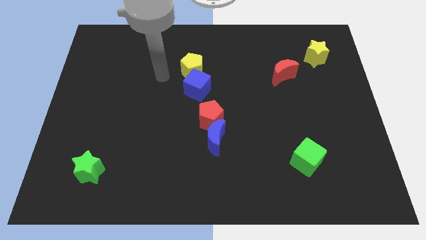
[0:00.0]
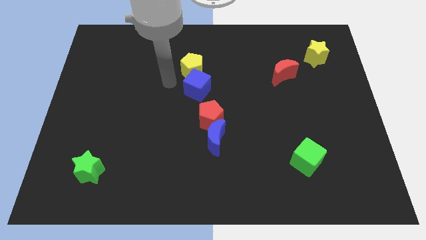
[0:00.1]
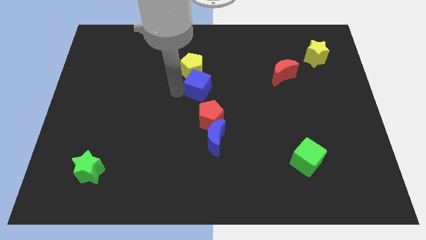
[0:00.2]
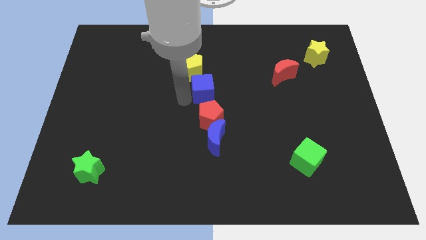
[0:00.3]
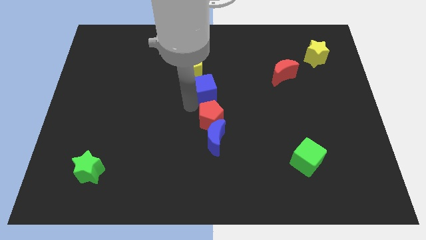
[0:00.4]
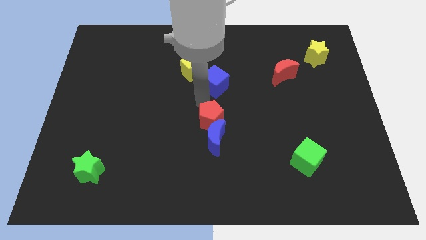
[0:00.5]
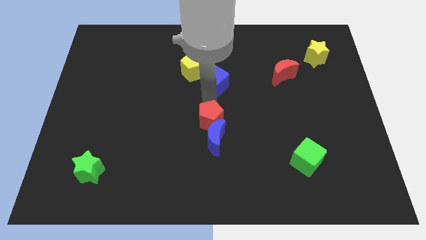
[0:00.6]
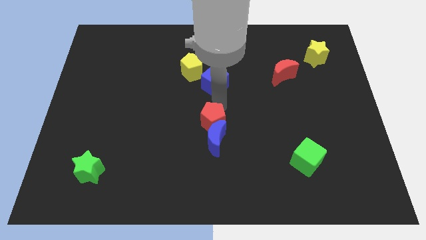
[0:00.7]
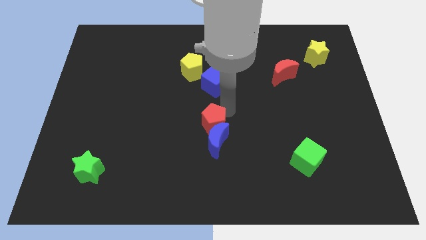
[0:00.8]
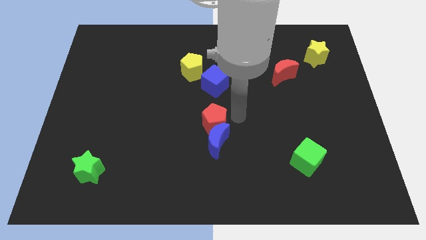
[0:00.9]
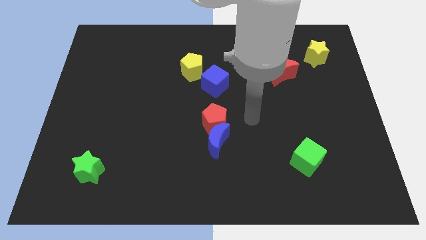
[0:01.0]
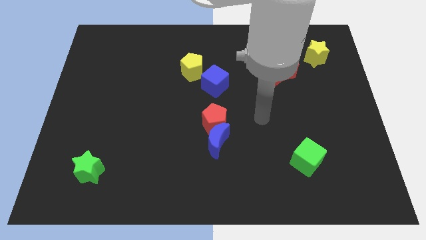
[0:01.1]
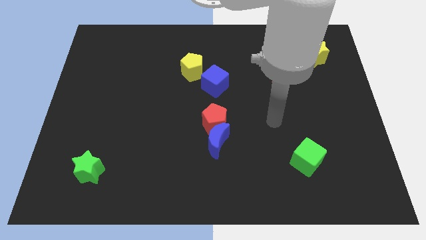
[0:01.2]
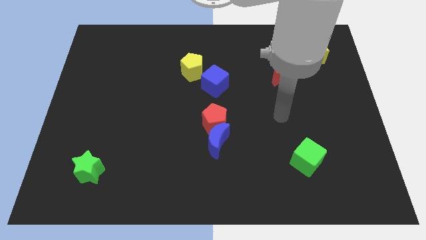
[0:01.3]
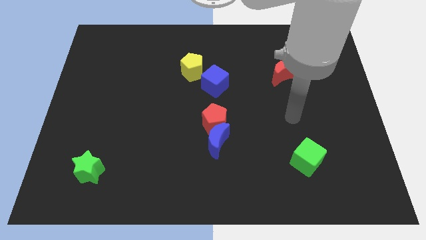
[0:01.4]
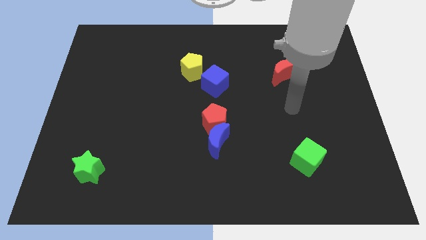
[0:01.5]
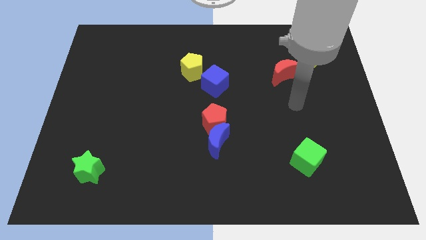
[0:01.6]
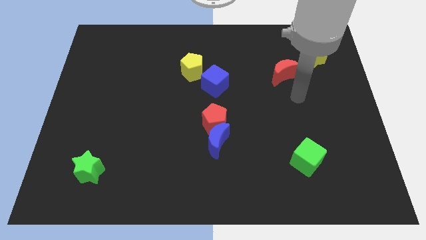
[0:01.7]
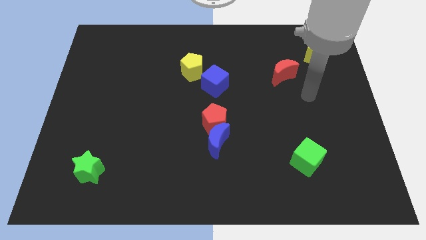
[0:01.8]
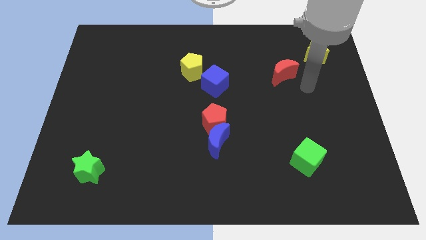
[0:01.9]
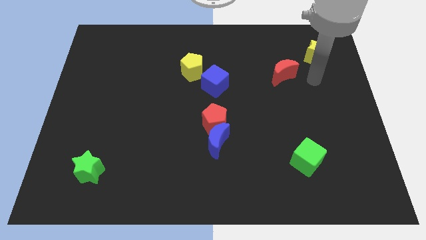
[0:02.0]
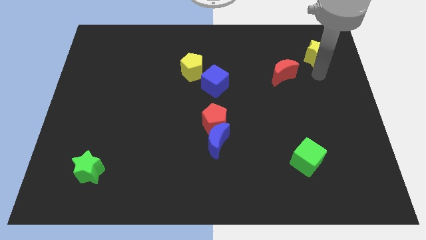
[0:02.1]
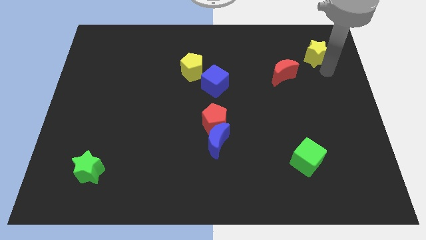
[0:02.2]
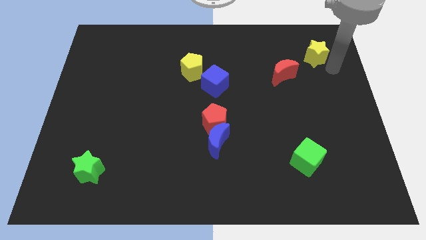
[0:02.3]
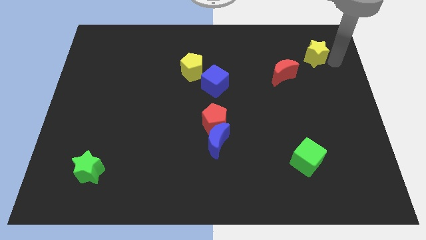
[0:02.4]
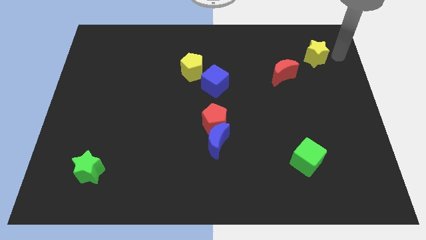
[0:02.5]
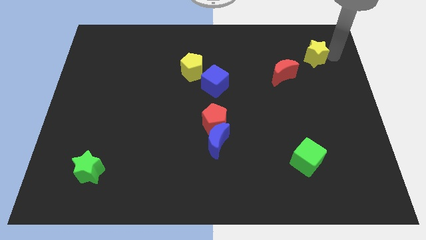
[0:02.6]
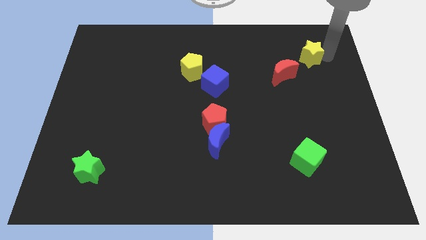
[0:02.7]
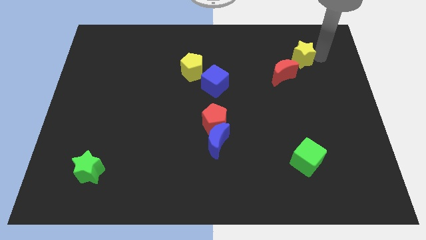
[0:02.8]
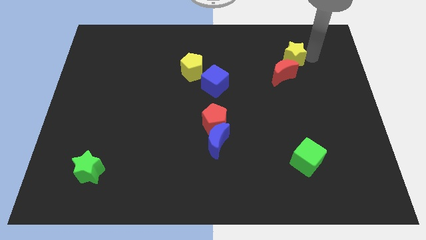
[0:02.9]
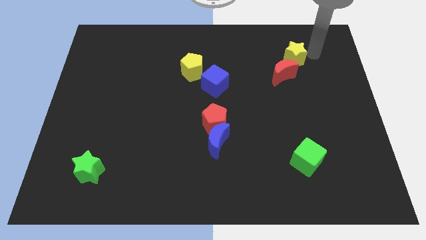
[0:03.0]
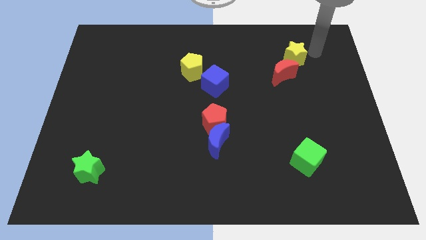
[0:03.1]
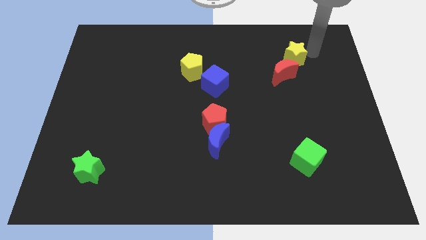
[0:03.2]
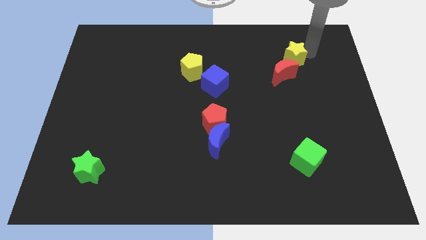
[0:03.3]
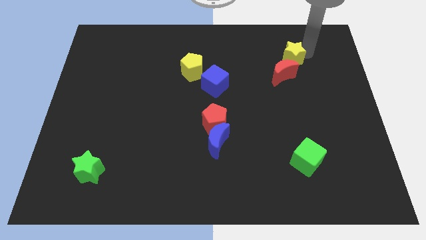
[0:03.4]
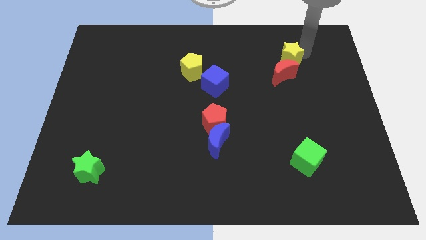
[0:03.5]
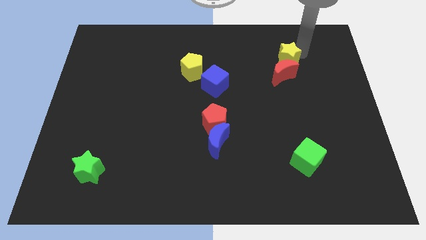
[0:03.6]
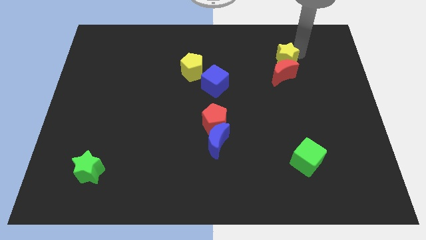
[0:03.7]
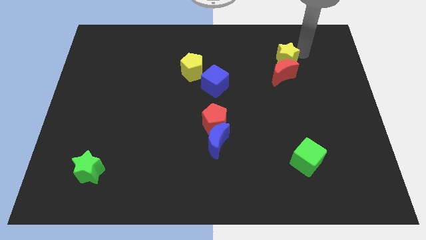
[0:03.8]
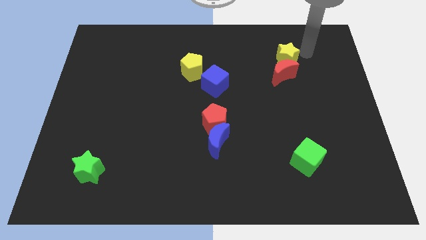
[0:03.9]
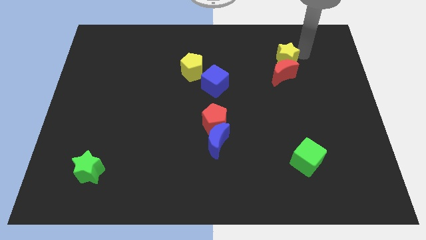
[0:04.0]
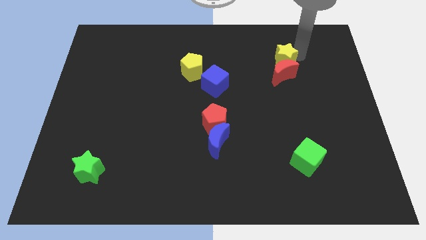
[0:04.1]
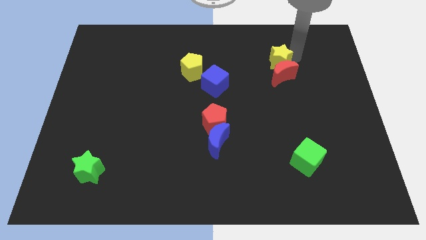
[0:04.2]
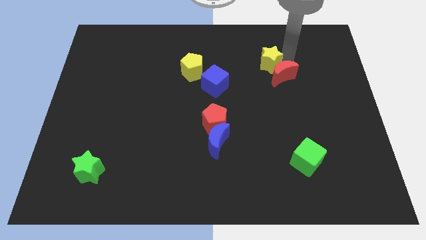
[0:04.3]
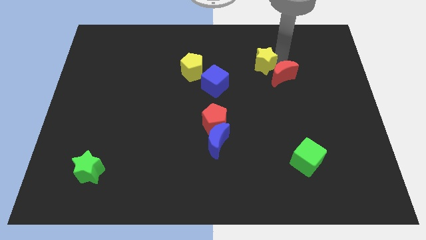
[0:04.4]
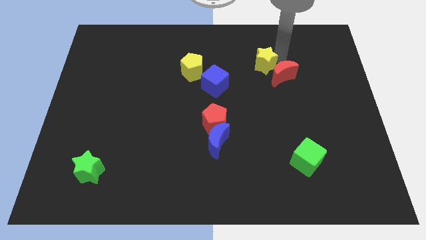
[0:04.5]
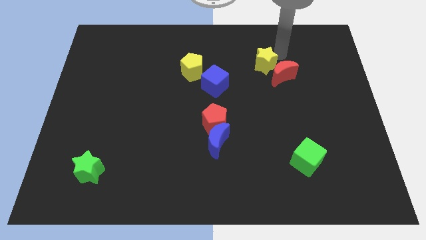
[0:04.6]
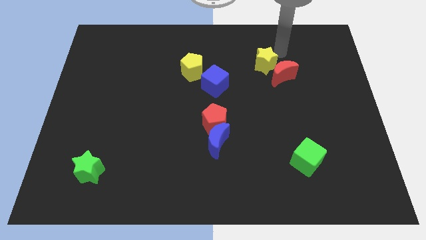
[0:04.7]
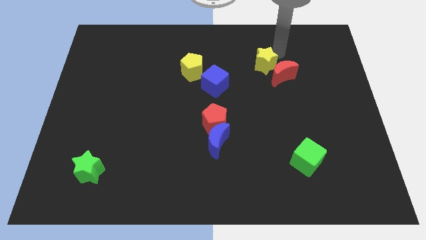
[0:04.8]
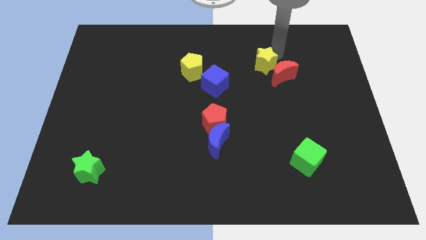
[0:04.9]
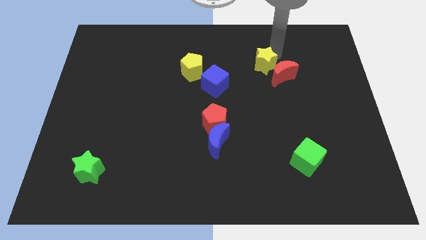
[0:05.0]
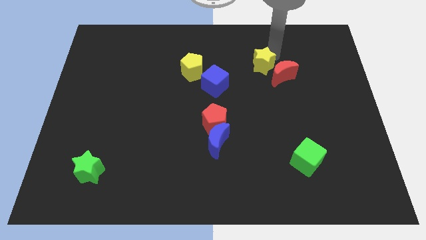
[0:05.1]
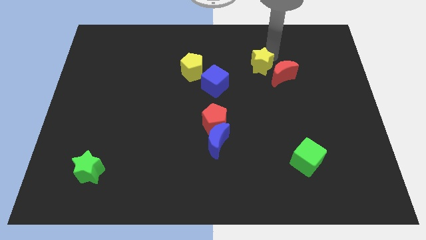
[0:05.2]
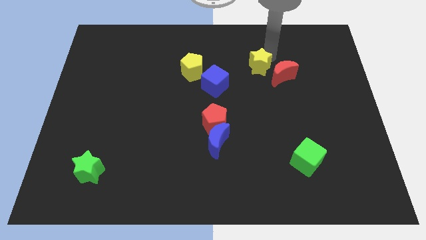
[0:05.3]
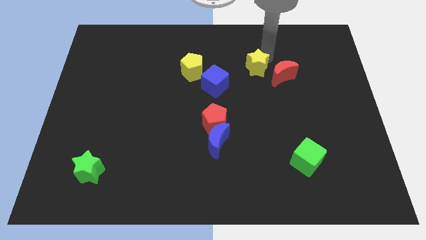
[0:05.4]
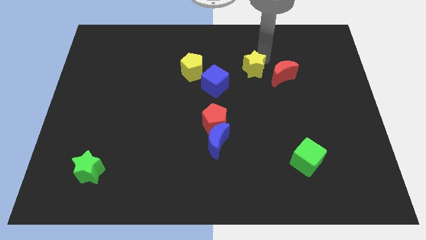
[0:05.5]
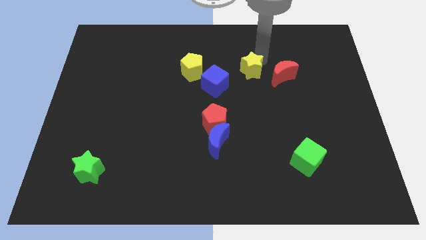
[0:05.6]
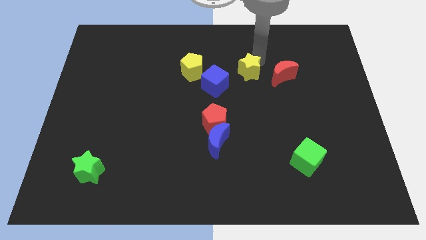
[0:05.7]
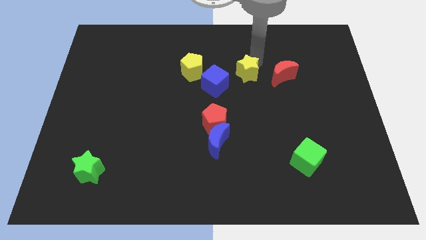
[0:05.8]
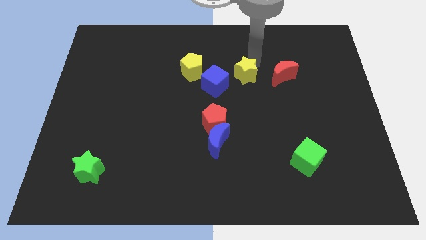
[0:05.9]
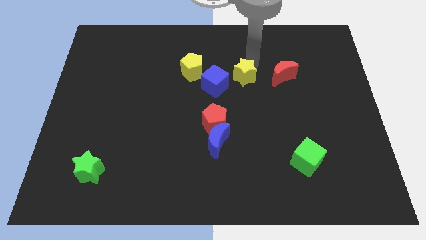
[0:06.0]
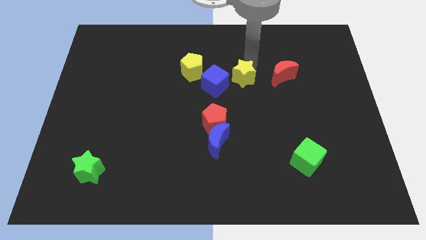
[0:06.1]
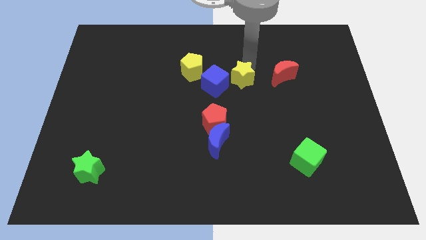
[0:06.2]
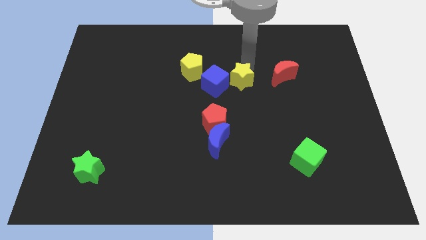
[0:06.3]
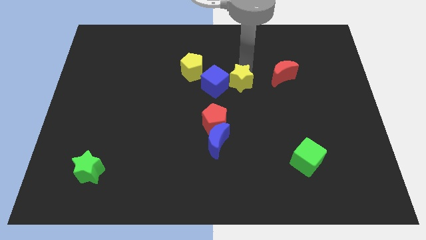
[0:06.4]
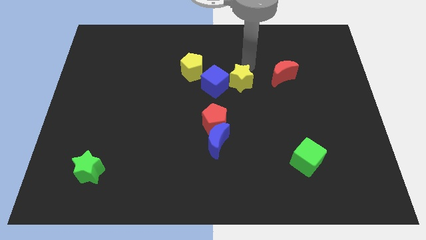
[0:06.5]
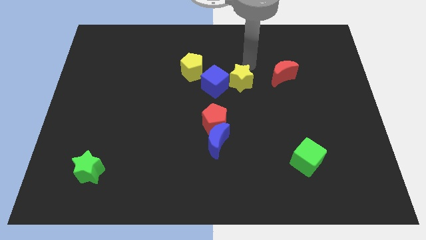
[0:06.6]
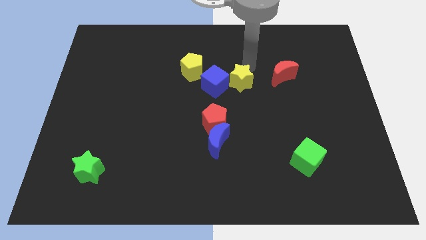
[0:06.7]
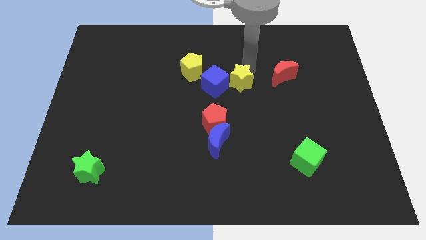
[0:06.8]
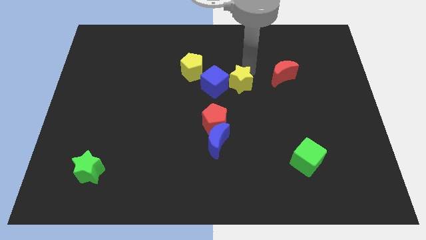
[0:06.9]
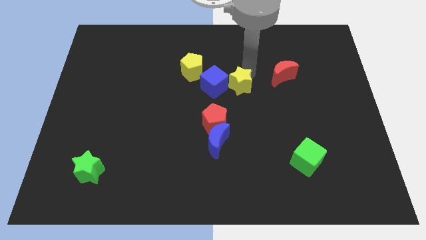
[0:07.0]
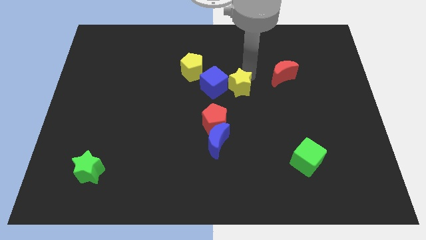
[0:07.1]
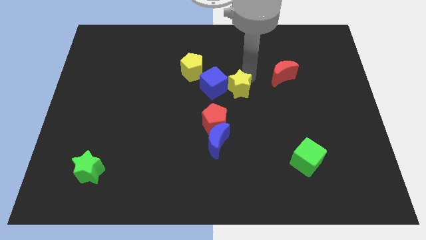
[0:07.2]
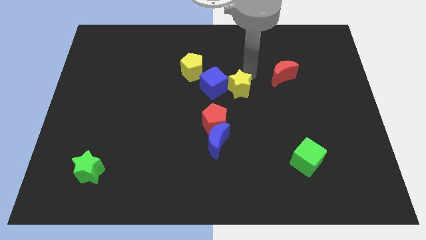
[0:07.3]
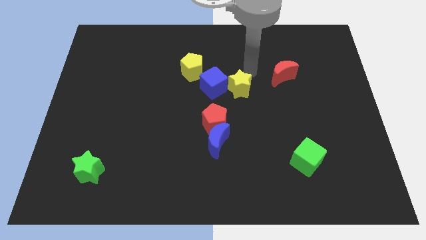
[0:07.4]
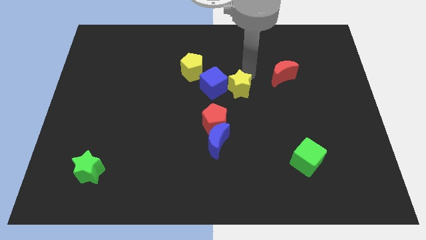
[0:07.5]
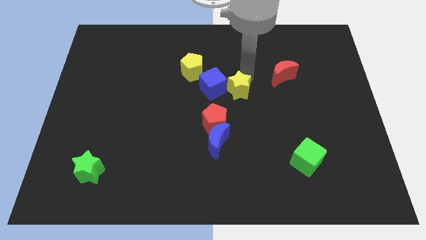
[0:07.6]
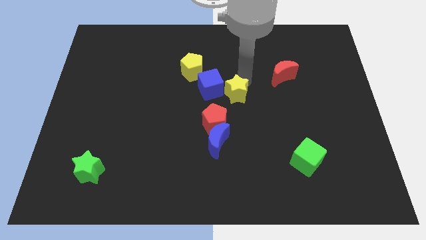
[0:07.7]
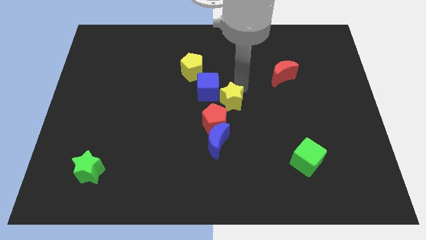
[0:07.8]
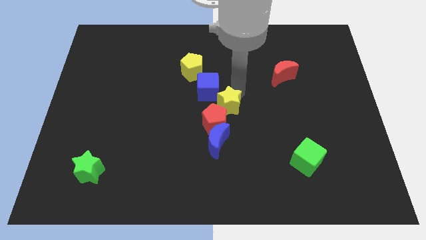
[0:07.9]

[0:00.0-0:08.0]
slide the yellow star towards the red pentagon
